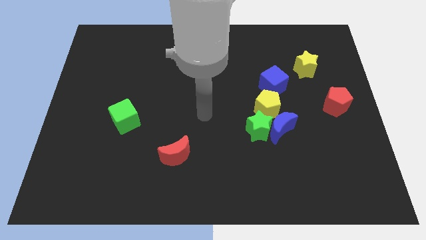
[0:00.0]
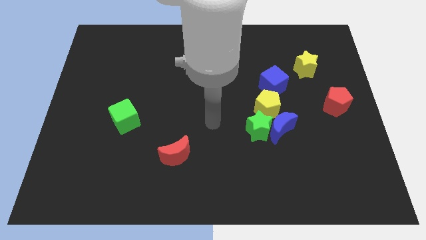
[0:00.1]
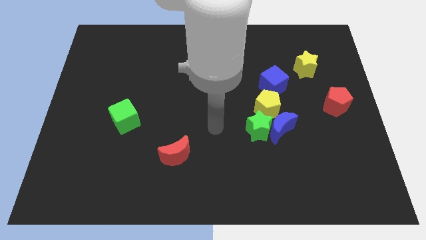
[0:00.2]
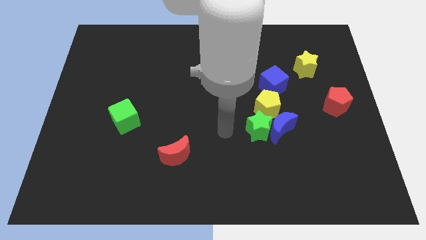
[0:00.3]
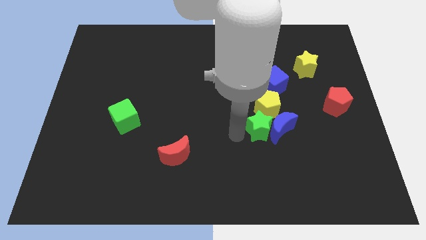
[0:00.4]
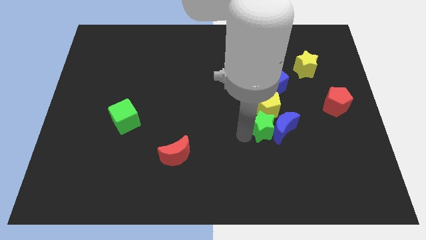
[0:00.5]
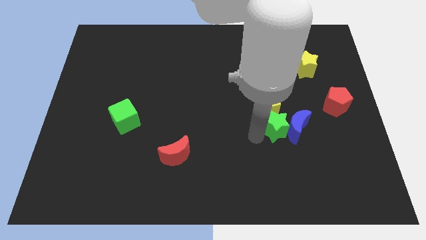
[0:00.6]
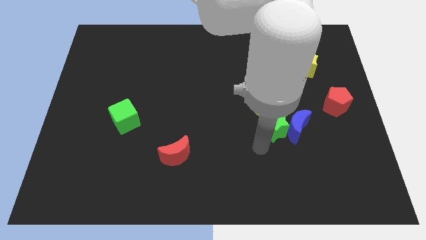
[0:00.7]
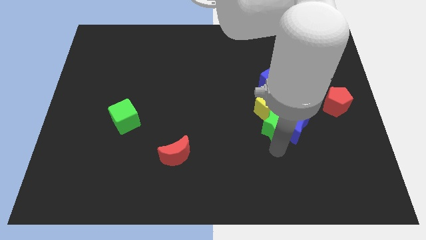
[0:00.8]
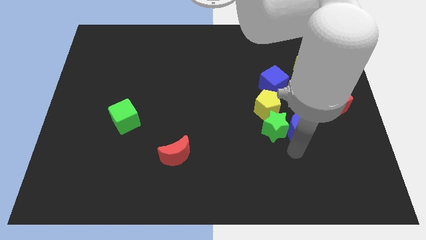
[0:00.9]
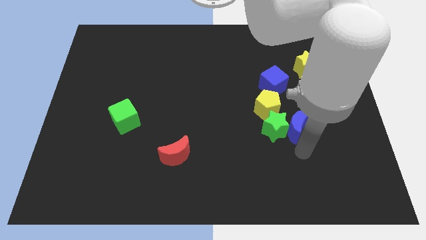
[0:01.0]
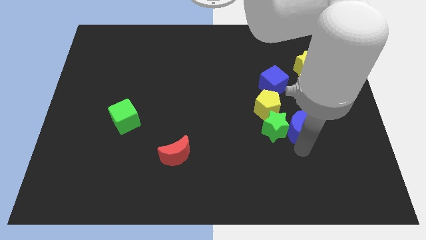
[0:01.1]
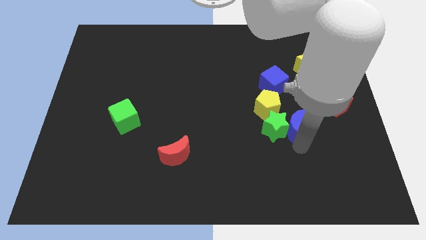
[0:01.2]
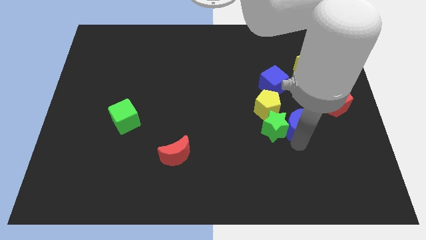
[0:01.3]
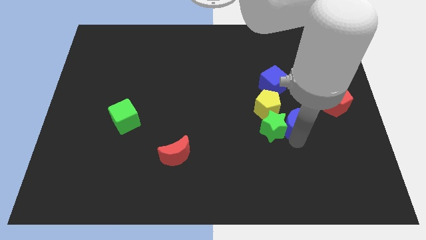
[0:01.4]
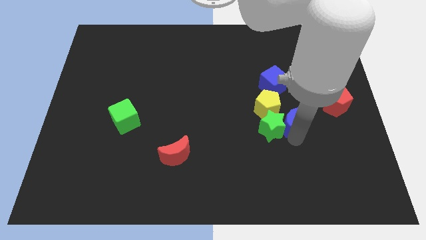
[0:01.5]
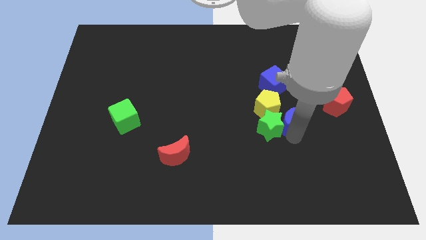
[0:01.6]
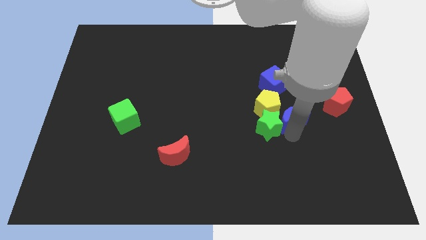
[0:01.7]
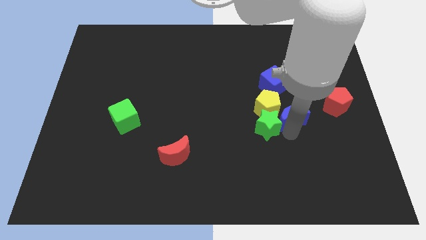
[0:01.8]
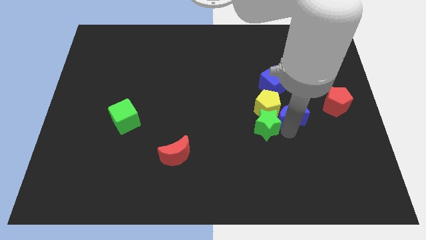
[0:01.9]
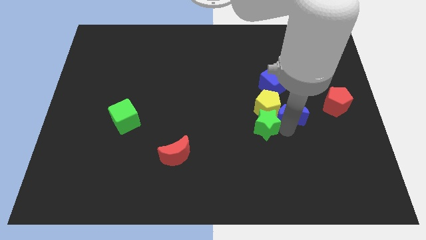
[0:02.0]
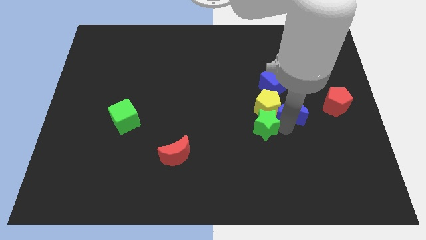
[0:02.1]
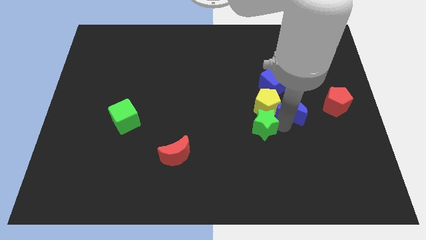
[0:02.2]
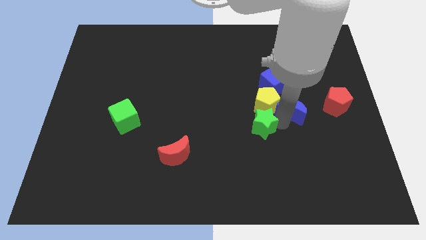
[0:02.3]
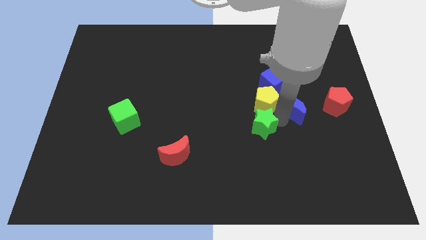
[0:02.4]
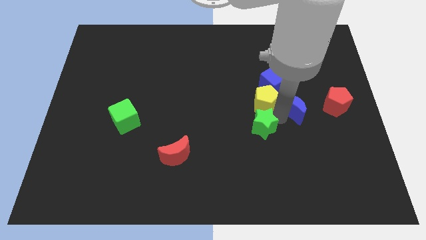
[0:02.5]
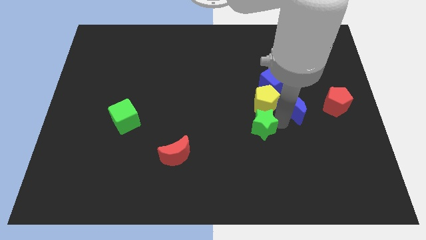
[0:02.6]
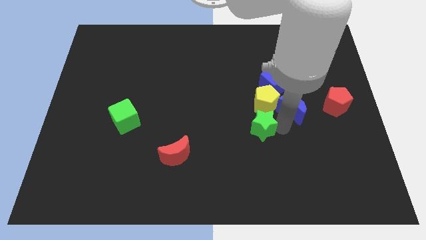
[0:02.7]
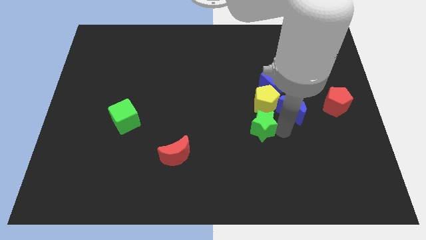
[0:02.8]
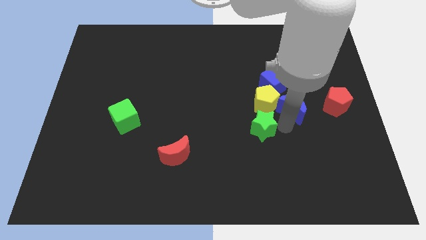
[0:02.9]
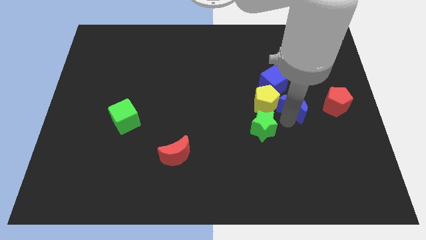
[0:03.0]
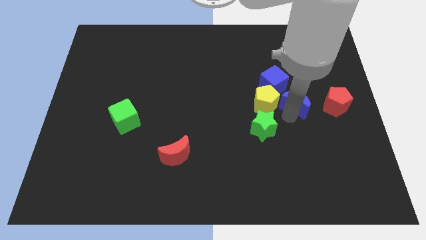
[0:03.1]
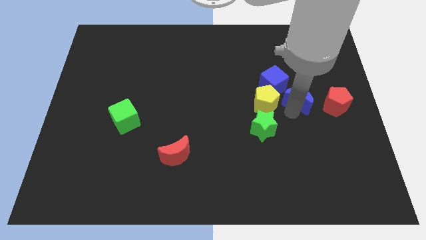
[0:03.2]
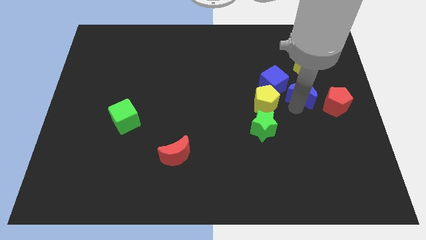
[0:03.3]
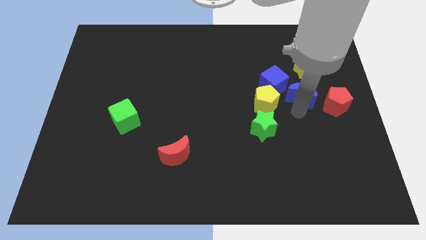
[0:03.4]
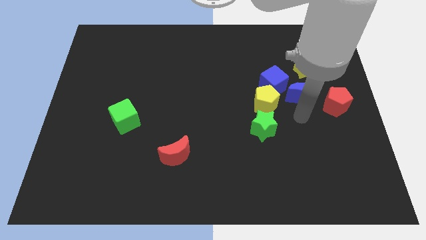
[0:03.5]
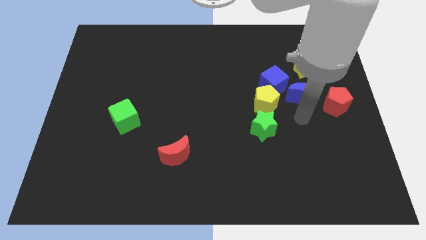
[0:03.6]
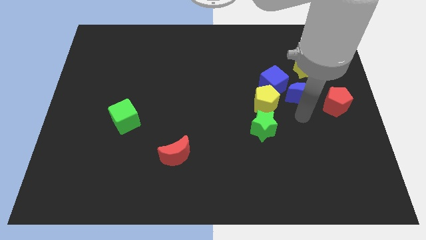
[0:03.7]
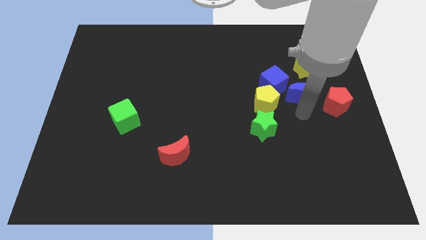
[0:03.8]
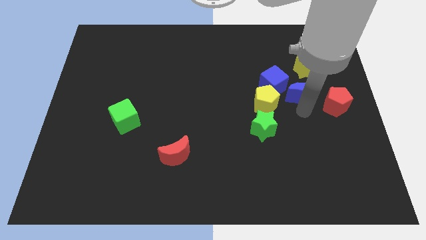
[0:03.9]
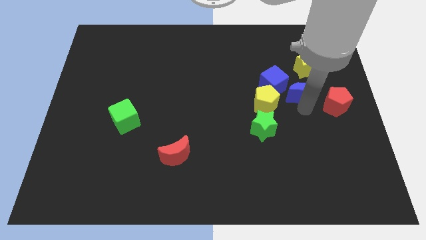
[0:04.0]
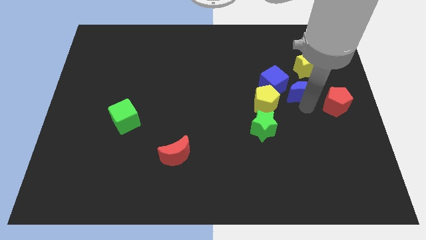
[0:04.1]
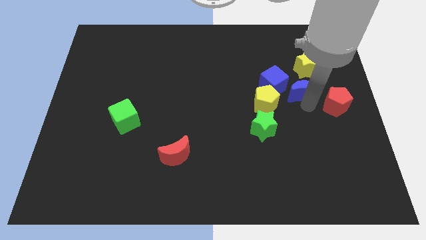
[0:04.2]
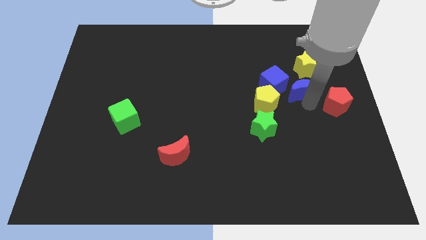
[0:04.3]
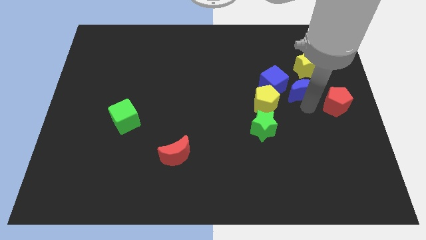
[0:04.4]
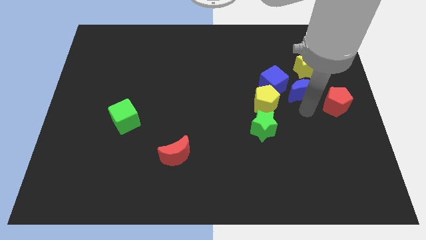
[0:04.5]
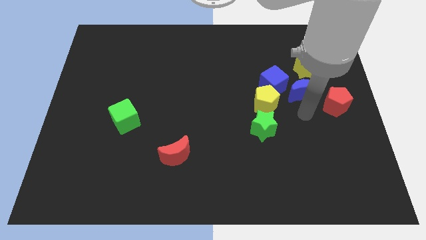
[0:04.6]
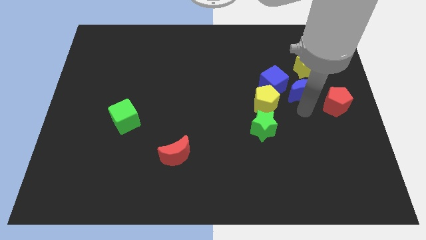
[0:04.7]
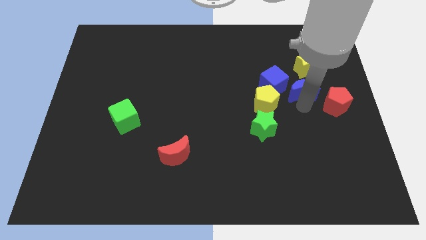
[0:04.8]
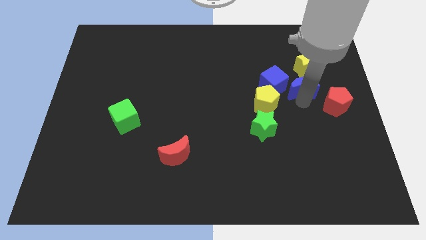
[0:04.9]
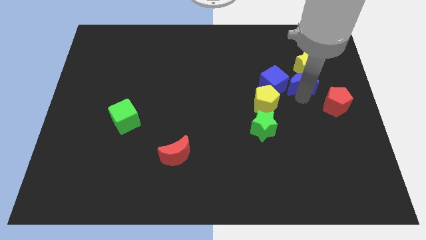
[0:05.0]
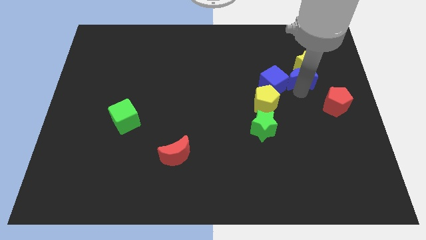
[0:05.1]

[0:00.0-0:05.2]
move the blue moon next to the yellow star

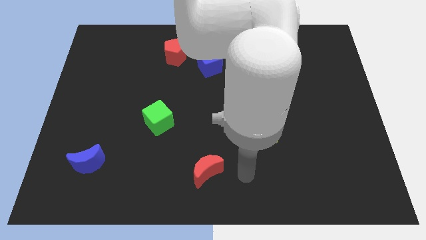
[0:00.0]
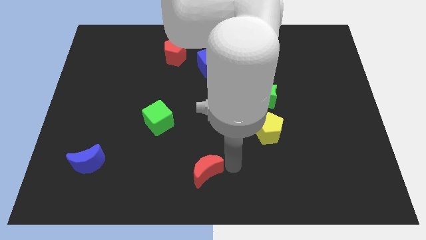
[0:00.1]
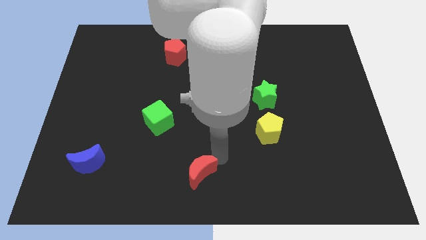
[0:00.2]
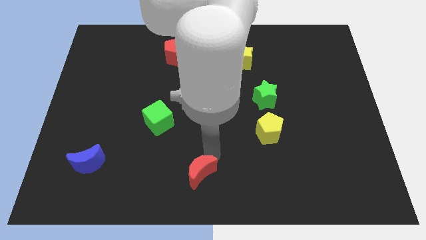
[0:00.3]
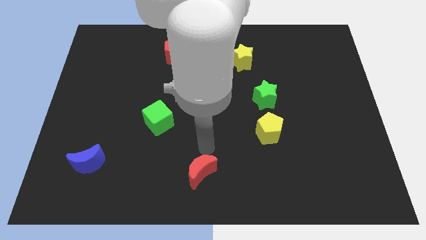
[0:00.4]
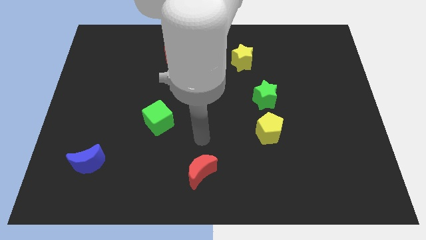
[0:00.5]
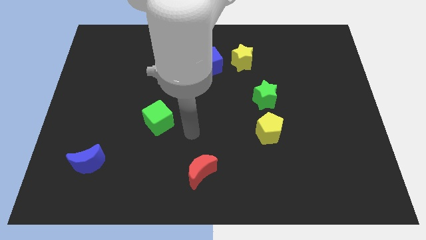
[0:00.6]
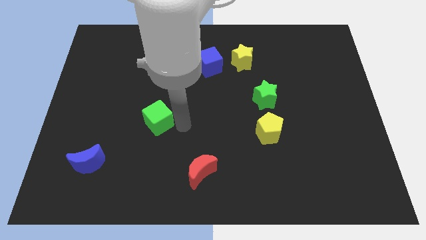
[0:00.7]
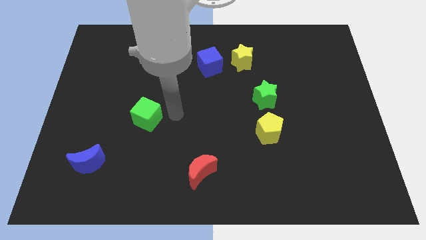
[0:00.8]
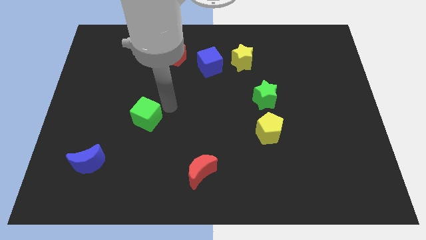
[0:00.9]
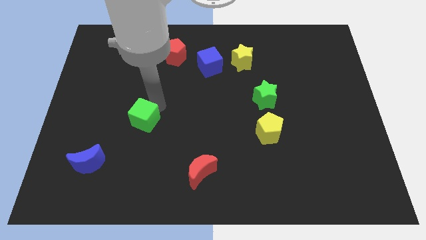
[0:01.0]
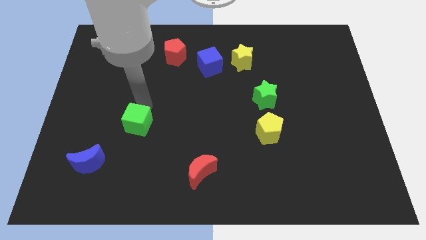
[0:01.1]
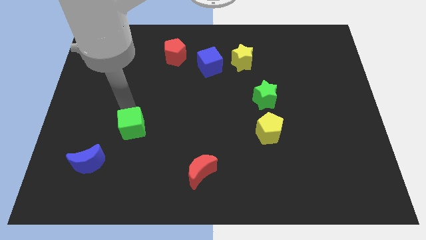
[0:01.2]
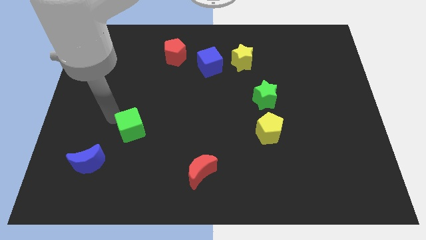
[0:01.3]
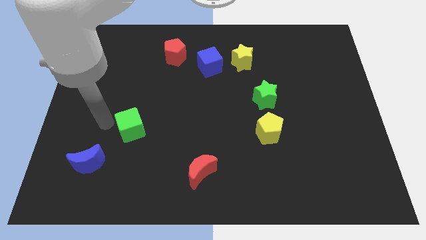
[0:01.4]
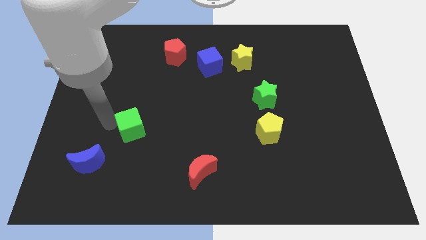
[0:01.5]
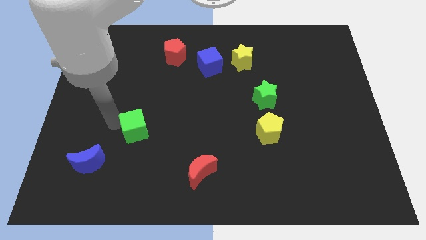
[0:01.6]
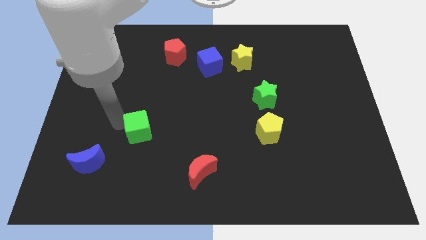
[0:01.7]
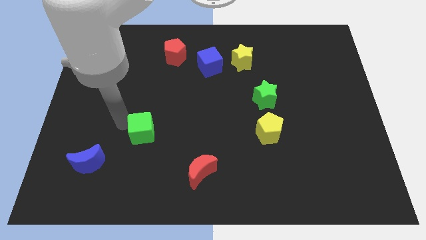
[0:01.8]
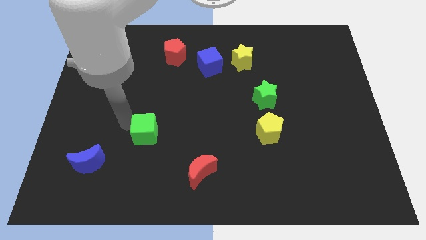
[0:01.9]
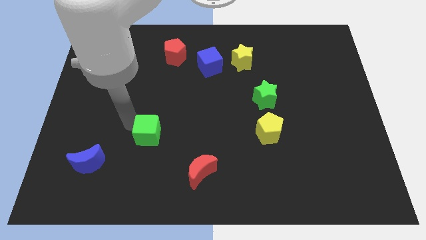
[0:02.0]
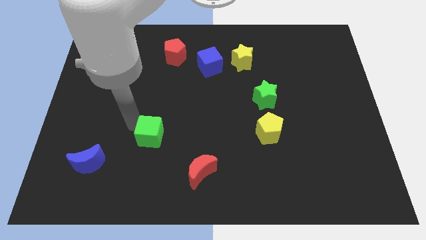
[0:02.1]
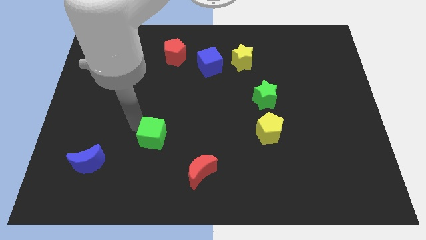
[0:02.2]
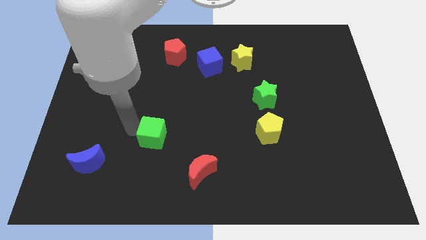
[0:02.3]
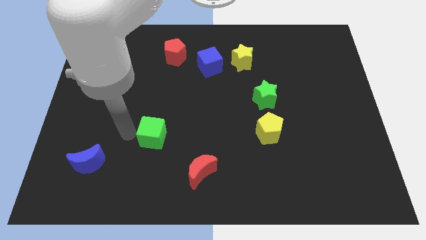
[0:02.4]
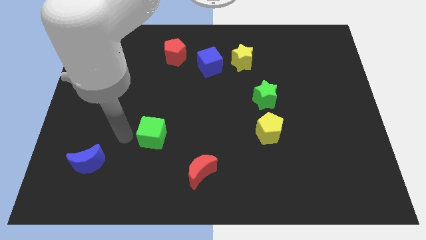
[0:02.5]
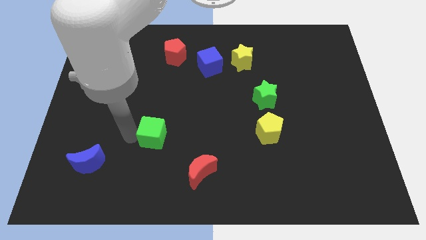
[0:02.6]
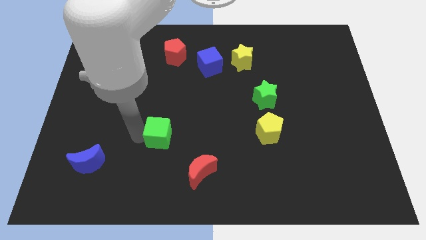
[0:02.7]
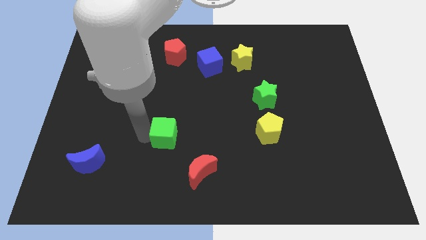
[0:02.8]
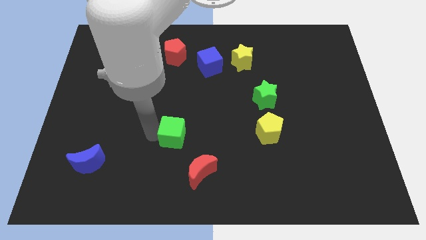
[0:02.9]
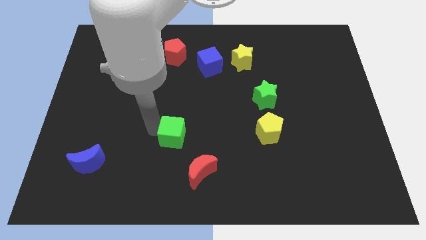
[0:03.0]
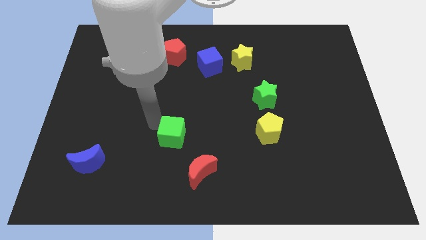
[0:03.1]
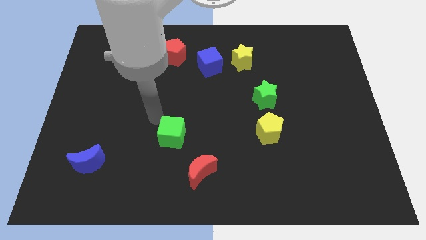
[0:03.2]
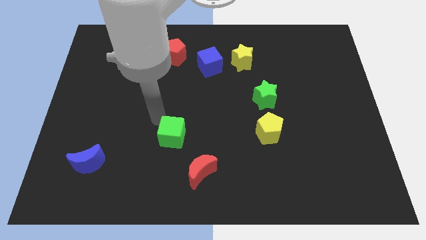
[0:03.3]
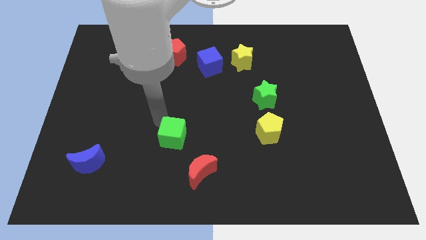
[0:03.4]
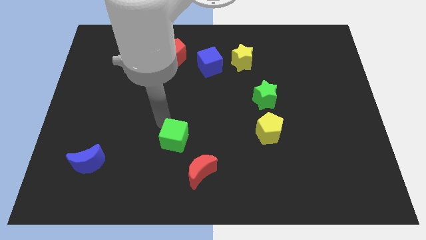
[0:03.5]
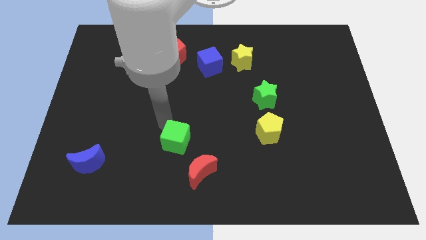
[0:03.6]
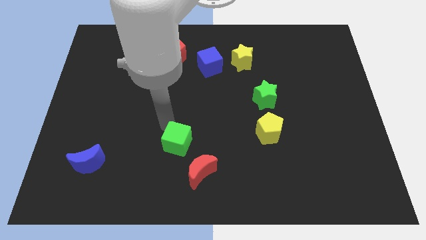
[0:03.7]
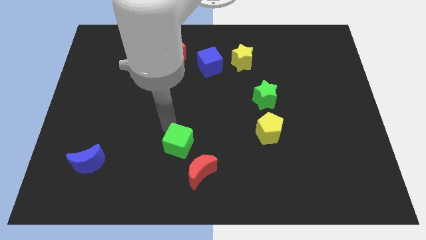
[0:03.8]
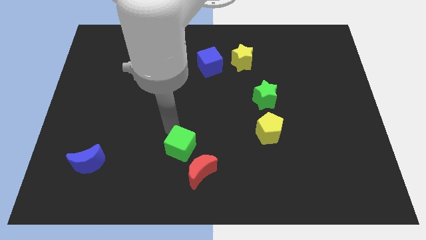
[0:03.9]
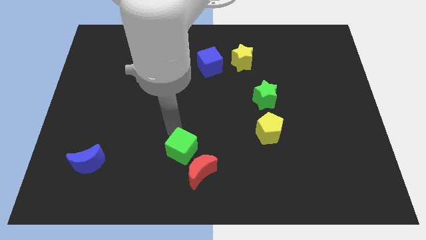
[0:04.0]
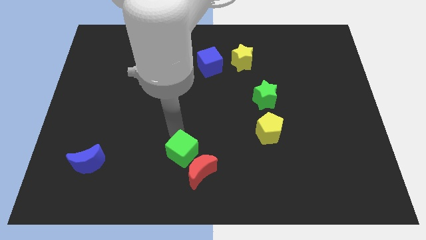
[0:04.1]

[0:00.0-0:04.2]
slide the green cube close to the red moon
